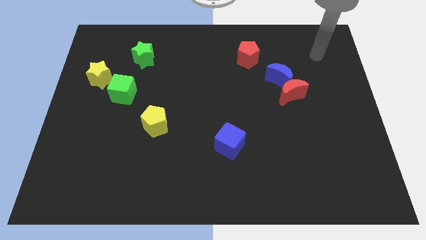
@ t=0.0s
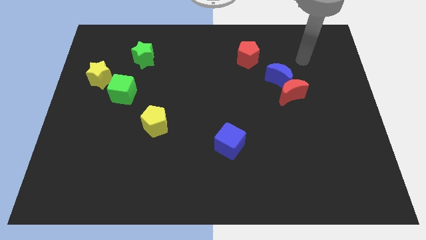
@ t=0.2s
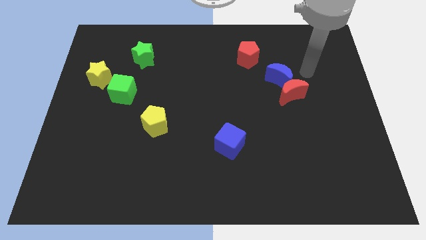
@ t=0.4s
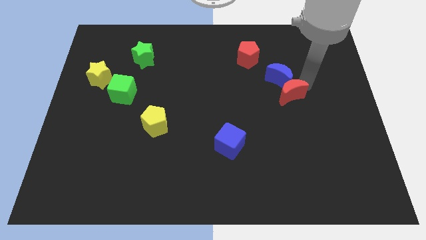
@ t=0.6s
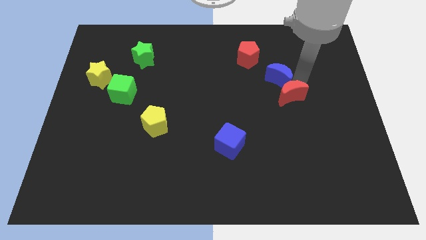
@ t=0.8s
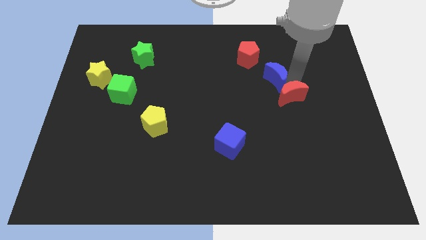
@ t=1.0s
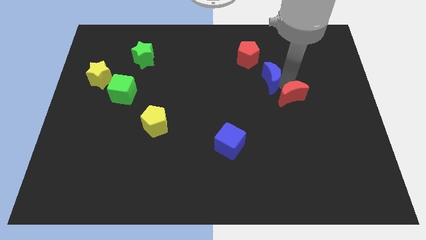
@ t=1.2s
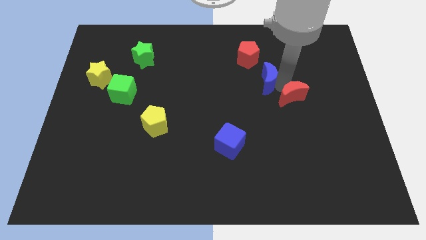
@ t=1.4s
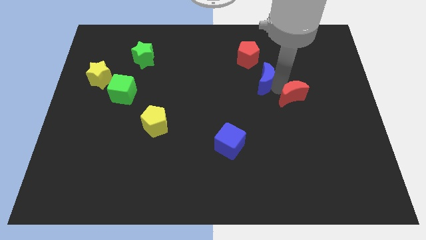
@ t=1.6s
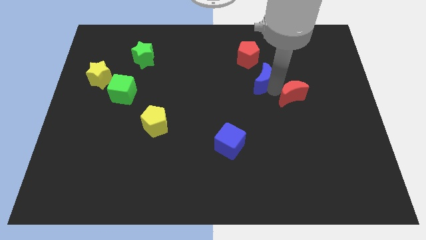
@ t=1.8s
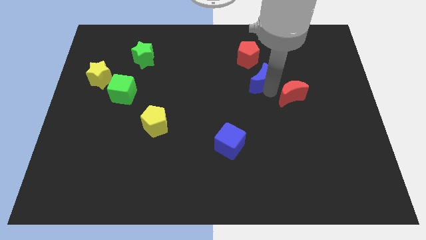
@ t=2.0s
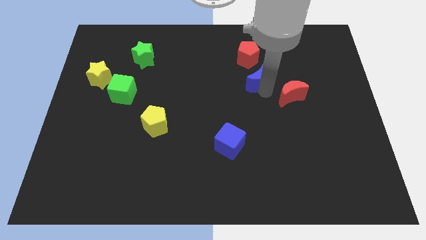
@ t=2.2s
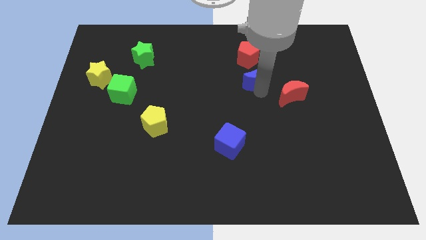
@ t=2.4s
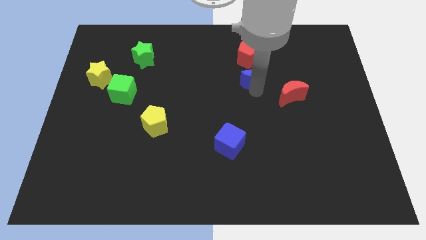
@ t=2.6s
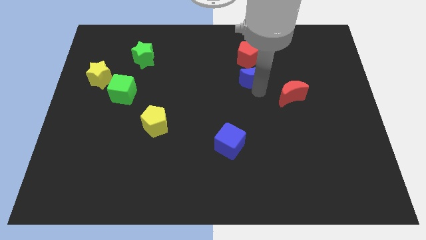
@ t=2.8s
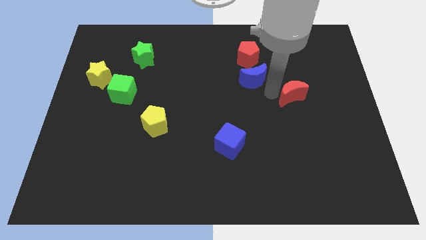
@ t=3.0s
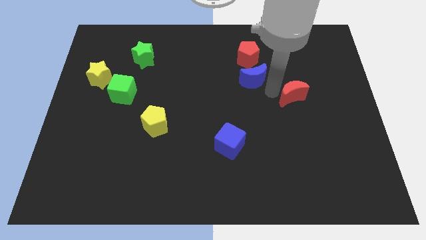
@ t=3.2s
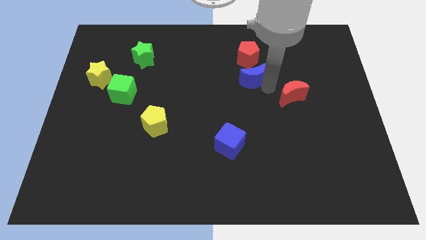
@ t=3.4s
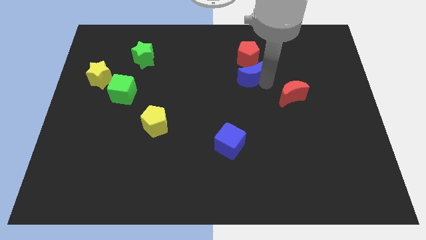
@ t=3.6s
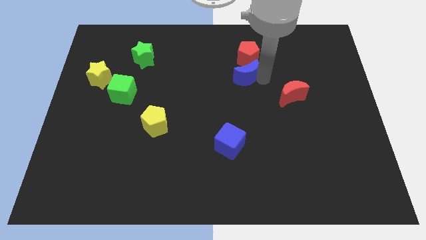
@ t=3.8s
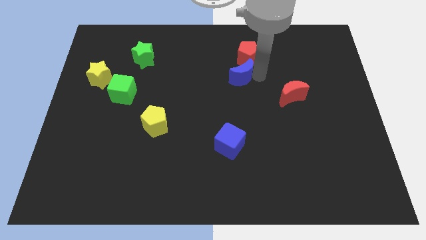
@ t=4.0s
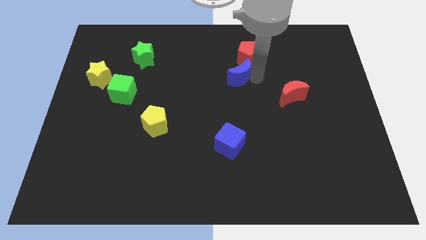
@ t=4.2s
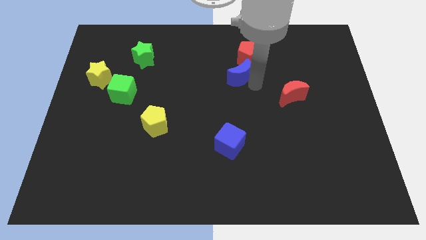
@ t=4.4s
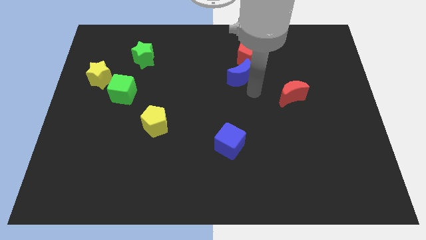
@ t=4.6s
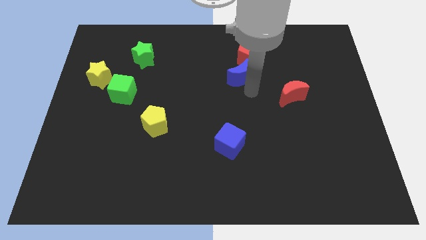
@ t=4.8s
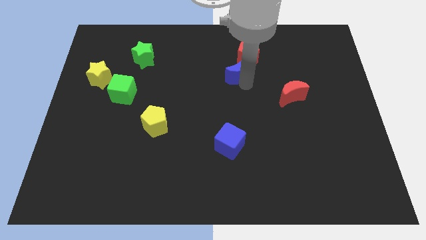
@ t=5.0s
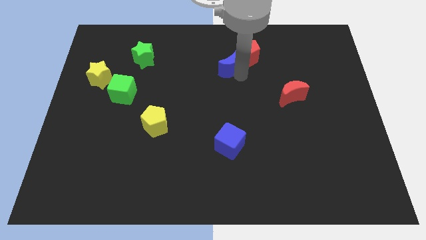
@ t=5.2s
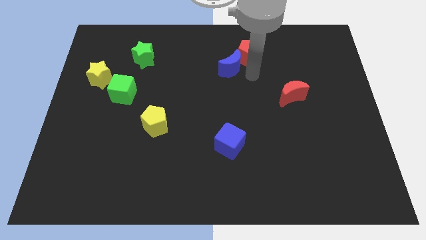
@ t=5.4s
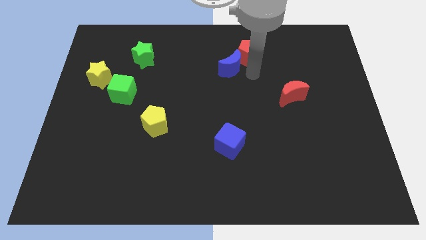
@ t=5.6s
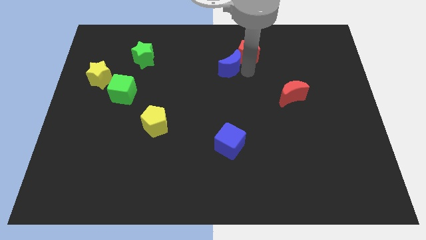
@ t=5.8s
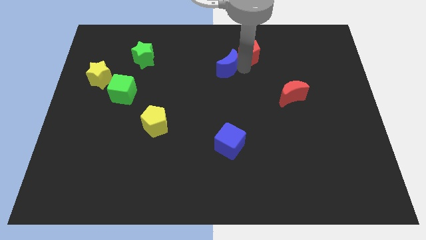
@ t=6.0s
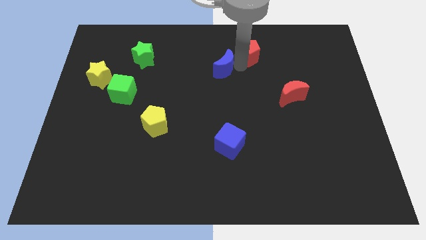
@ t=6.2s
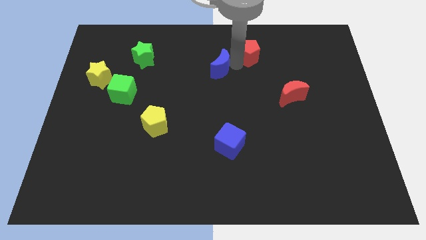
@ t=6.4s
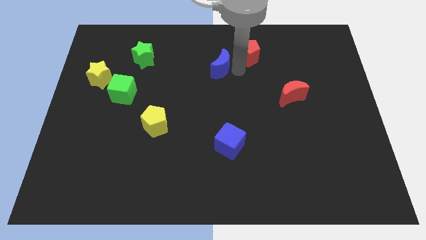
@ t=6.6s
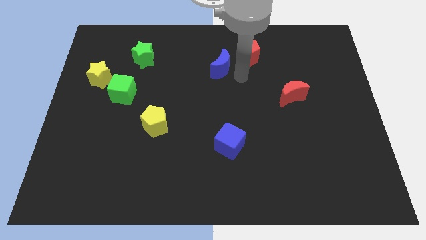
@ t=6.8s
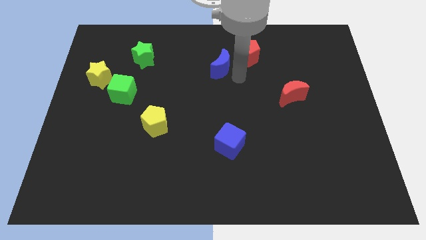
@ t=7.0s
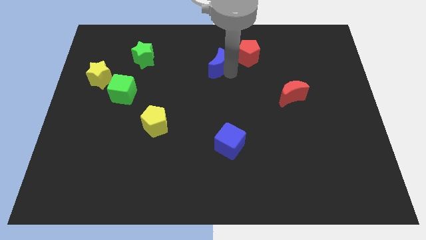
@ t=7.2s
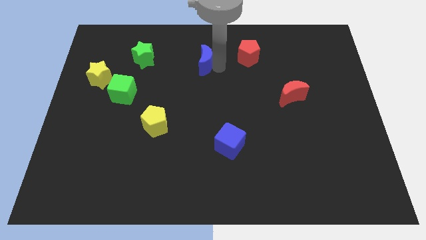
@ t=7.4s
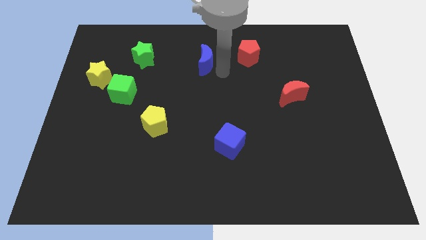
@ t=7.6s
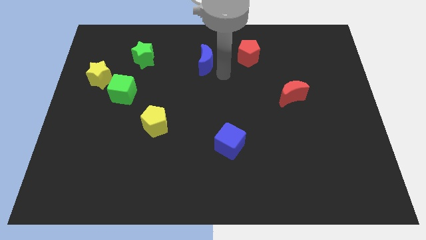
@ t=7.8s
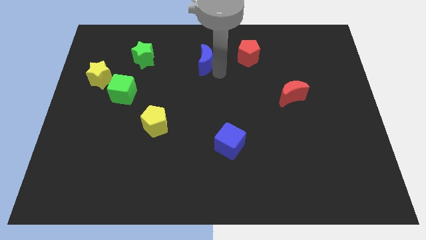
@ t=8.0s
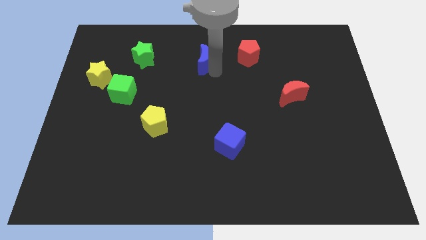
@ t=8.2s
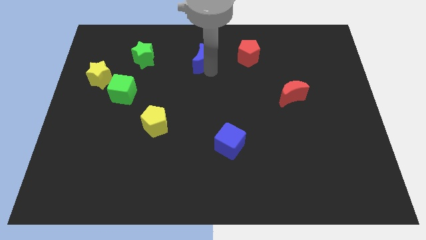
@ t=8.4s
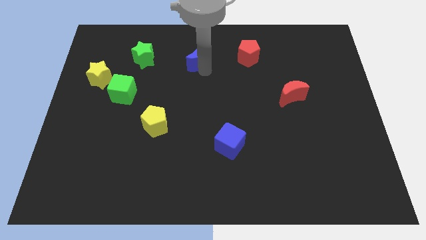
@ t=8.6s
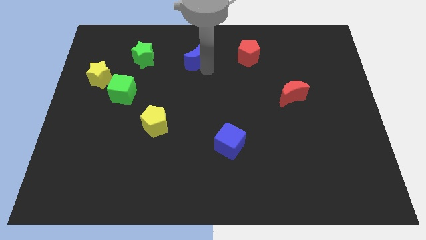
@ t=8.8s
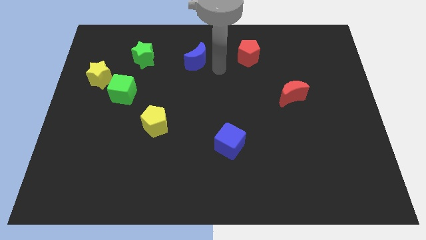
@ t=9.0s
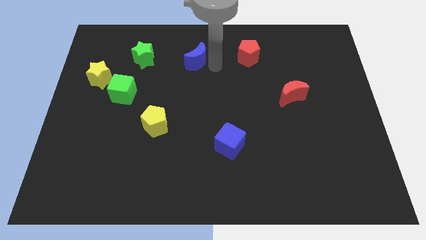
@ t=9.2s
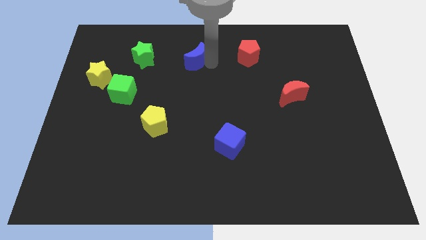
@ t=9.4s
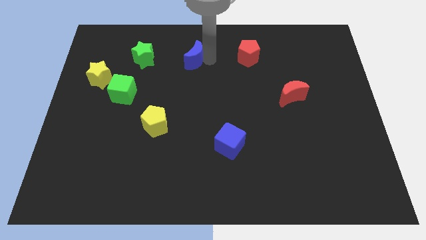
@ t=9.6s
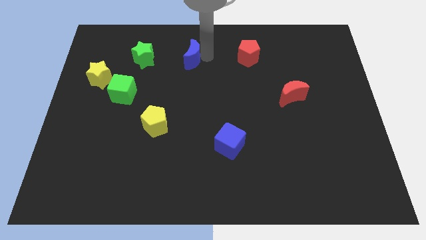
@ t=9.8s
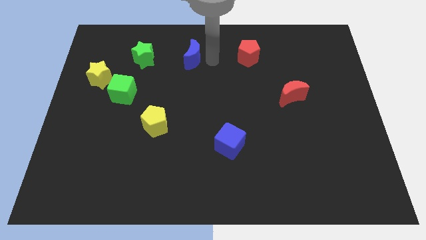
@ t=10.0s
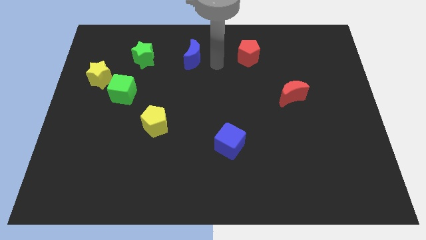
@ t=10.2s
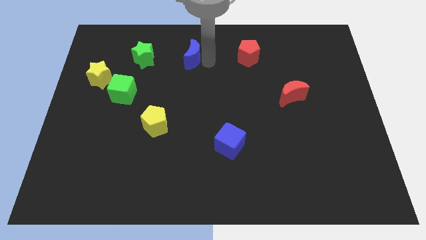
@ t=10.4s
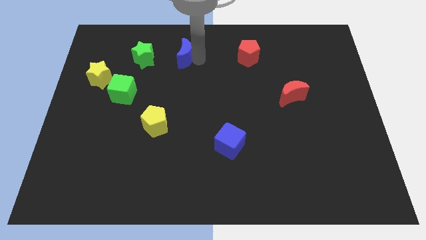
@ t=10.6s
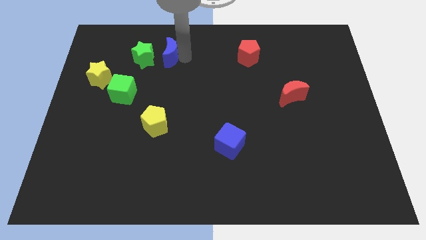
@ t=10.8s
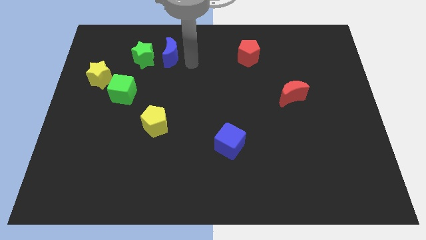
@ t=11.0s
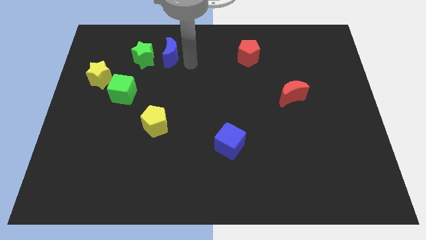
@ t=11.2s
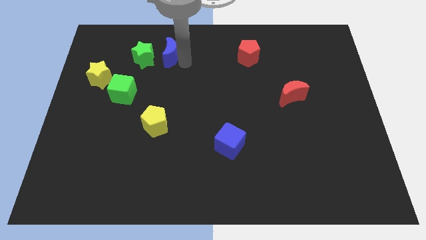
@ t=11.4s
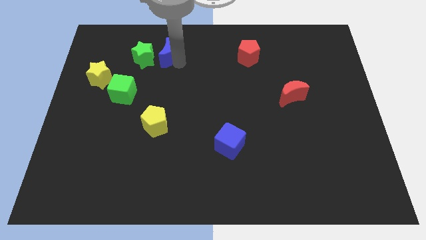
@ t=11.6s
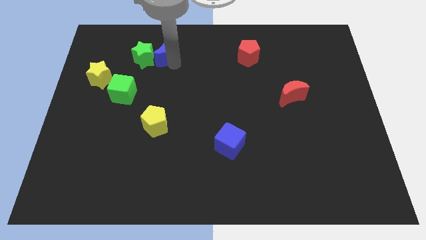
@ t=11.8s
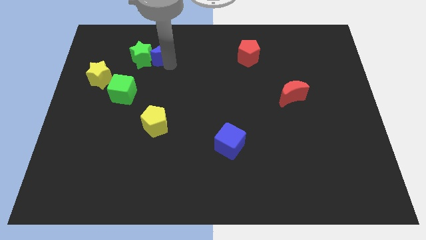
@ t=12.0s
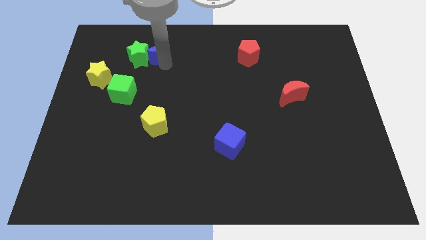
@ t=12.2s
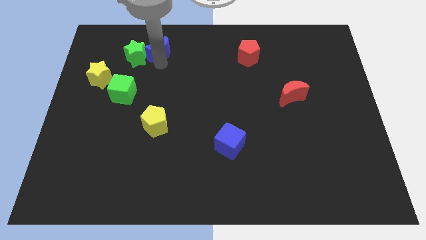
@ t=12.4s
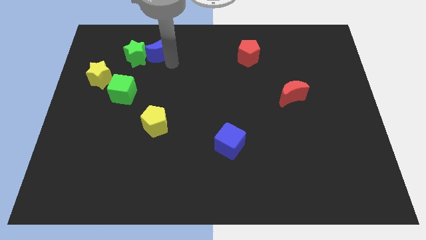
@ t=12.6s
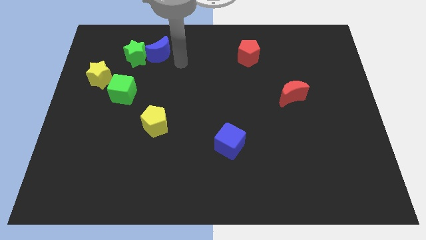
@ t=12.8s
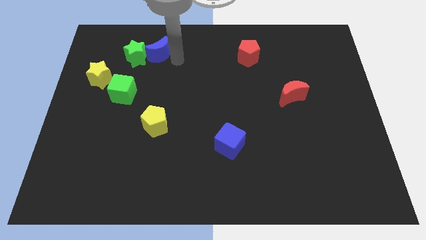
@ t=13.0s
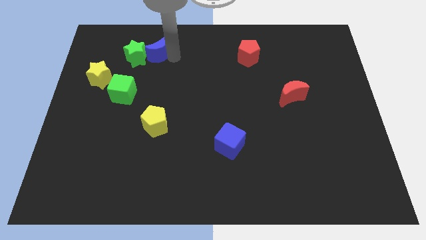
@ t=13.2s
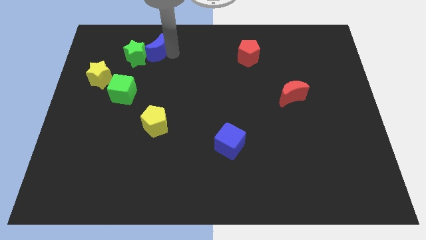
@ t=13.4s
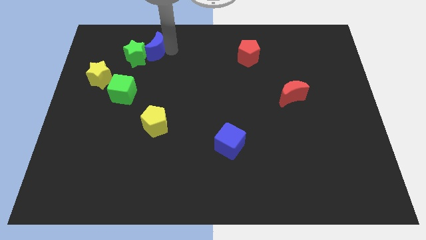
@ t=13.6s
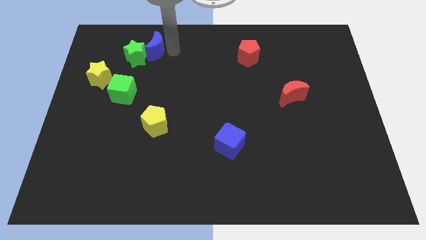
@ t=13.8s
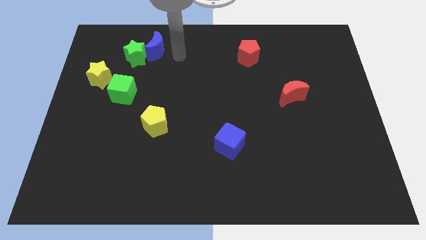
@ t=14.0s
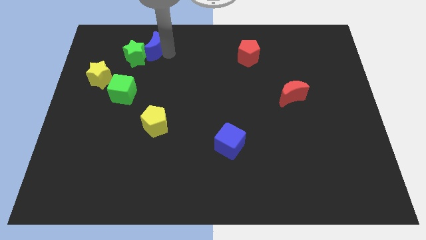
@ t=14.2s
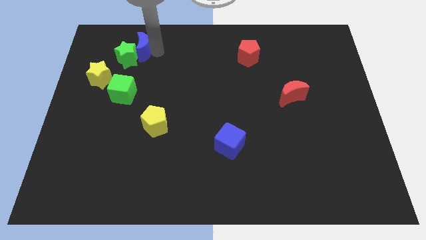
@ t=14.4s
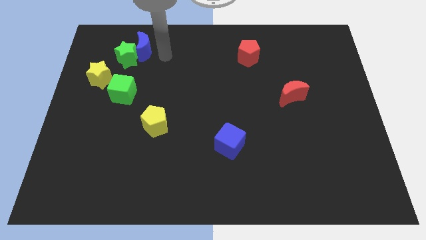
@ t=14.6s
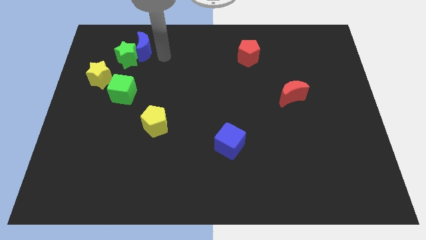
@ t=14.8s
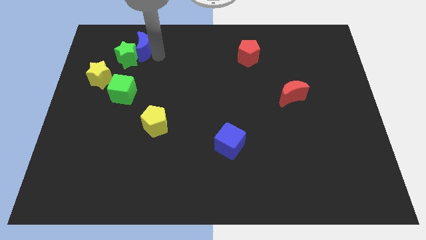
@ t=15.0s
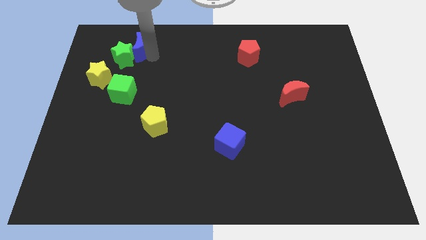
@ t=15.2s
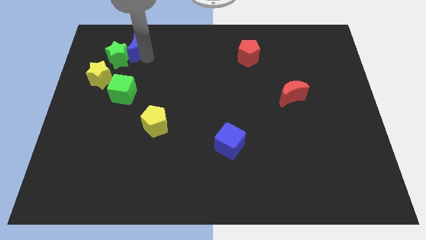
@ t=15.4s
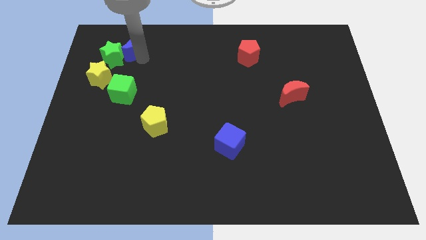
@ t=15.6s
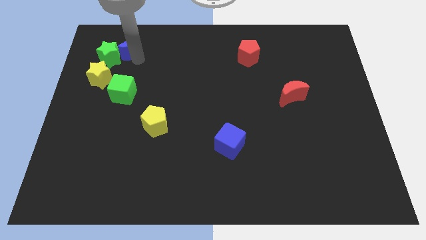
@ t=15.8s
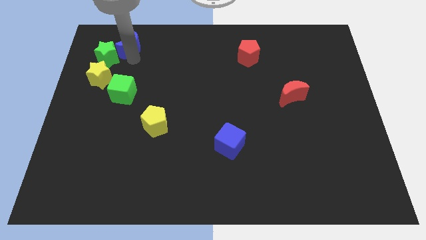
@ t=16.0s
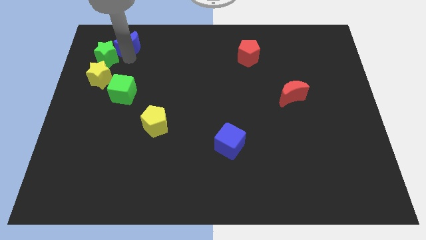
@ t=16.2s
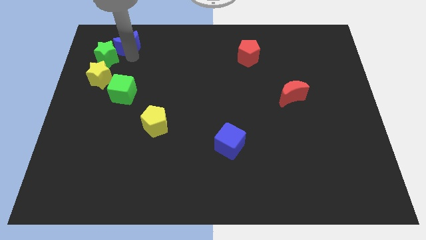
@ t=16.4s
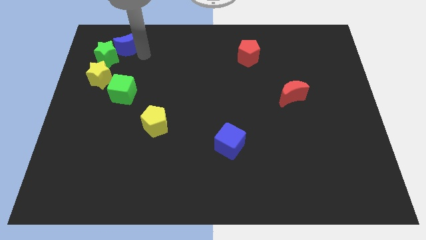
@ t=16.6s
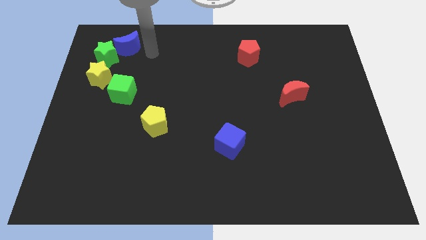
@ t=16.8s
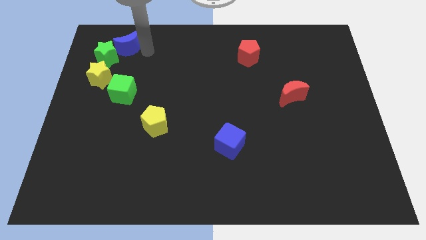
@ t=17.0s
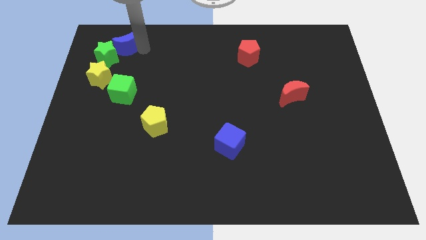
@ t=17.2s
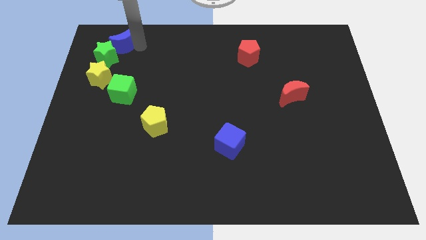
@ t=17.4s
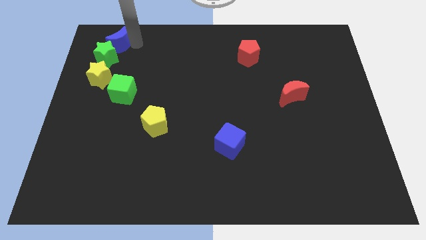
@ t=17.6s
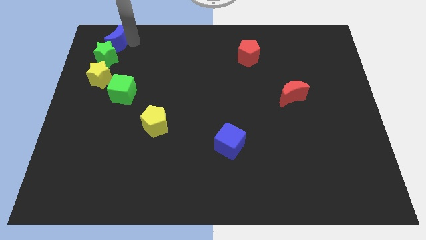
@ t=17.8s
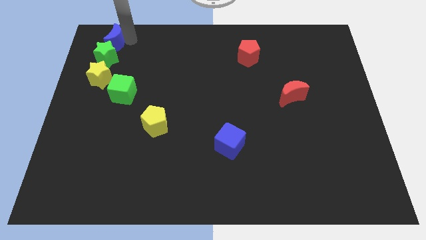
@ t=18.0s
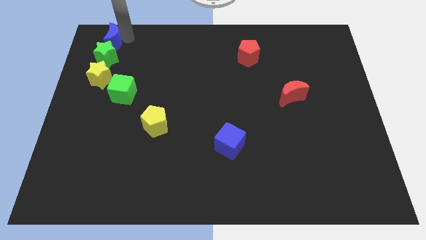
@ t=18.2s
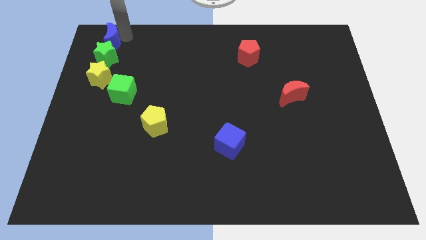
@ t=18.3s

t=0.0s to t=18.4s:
put the blue moon to the top left corner
